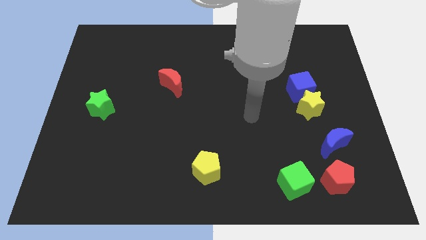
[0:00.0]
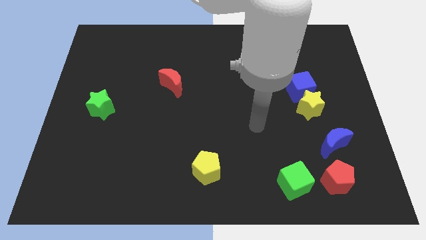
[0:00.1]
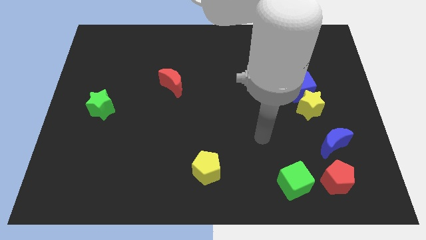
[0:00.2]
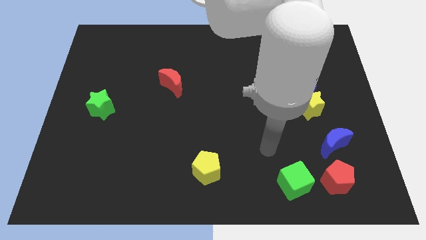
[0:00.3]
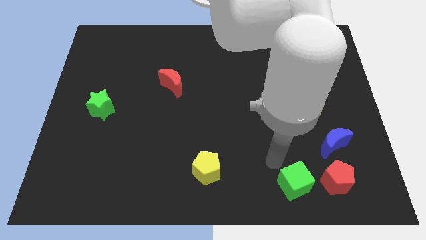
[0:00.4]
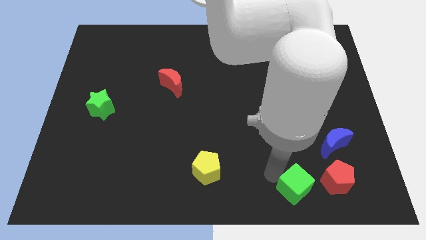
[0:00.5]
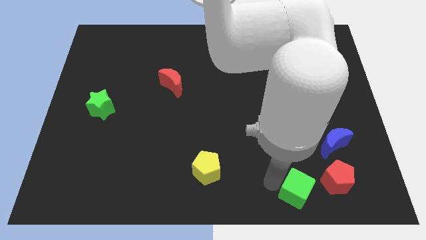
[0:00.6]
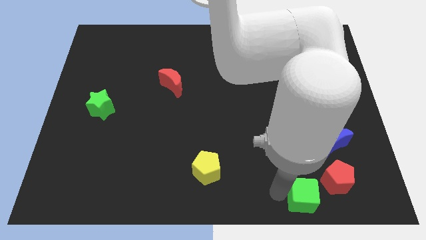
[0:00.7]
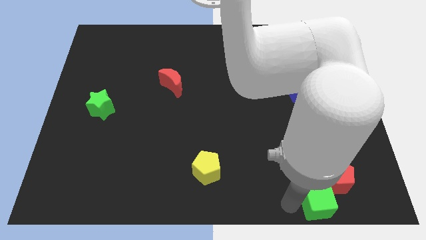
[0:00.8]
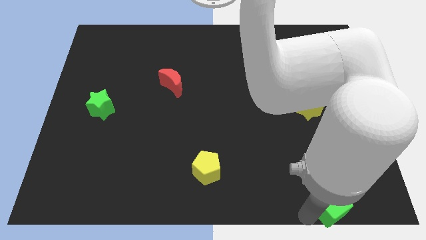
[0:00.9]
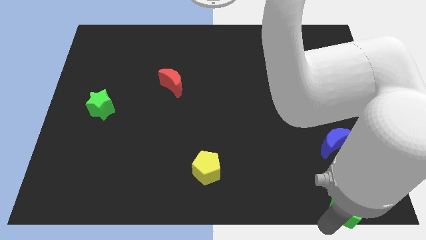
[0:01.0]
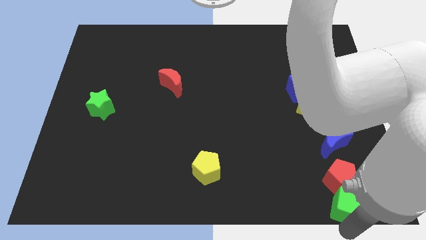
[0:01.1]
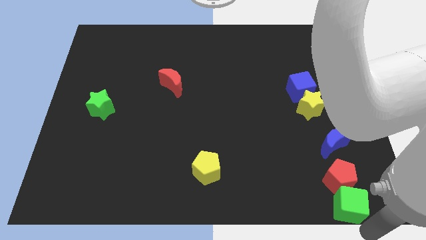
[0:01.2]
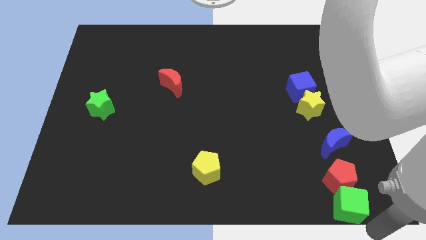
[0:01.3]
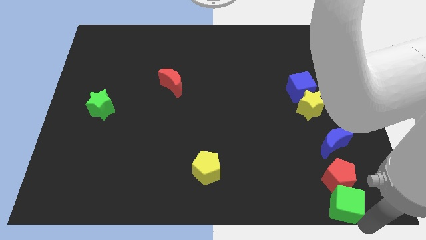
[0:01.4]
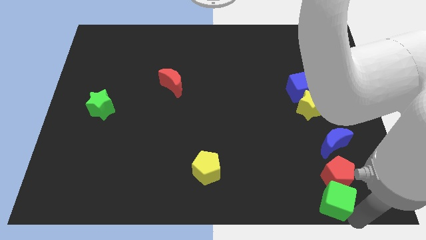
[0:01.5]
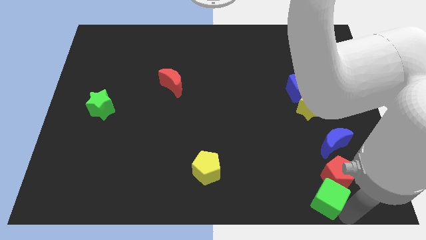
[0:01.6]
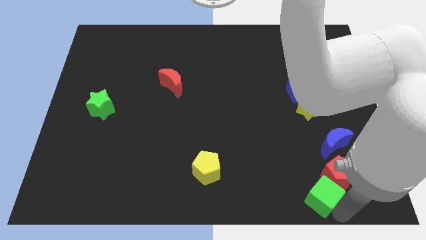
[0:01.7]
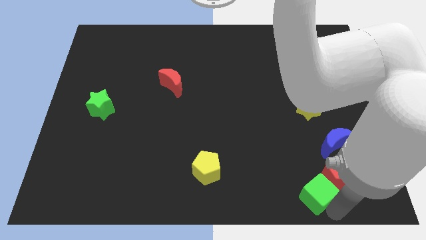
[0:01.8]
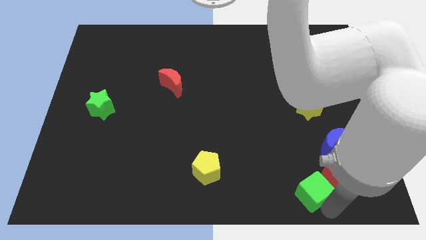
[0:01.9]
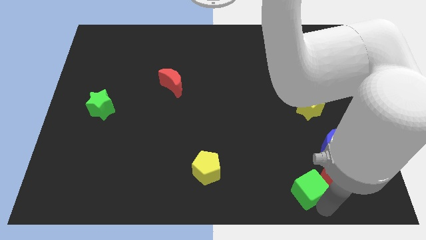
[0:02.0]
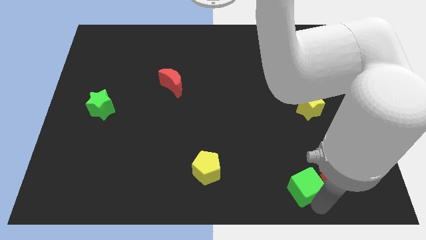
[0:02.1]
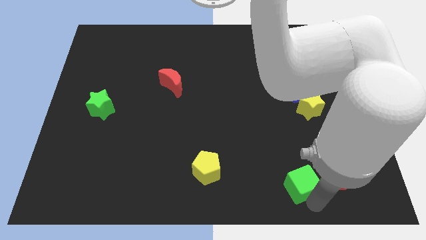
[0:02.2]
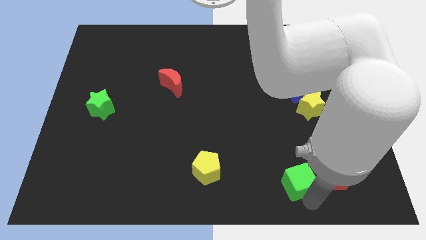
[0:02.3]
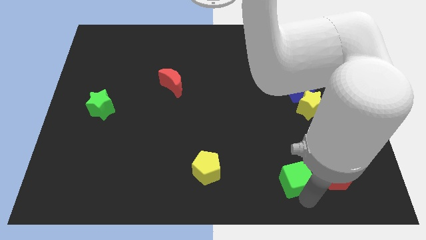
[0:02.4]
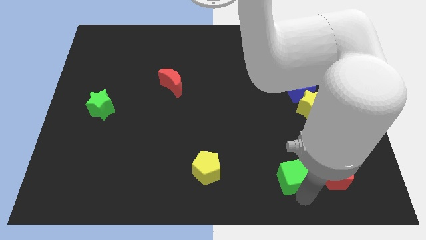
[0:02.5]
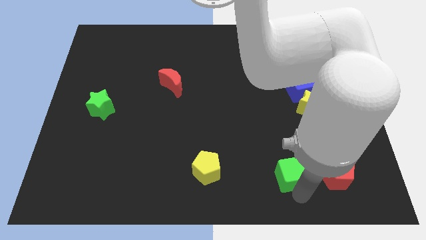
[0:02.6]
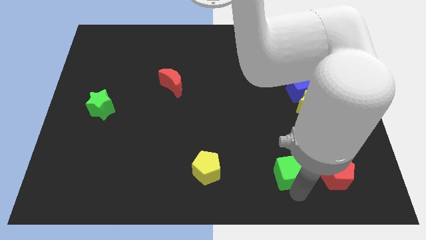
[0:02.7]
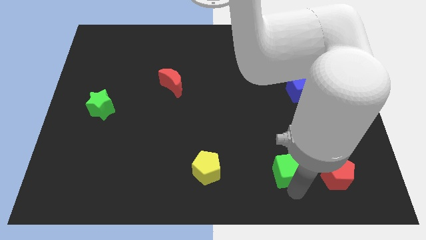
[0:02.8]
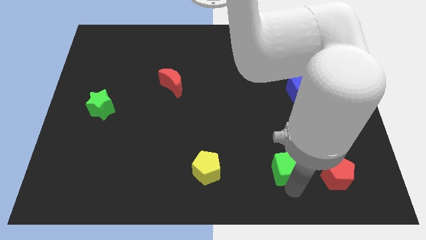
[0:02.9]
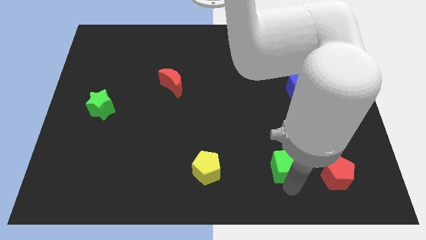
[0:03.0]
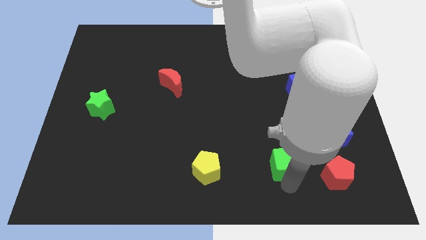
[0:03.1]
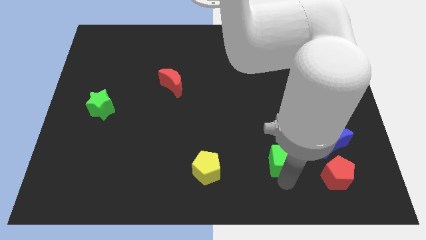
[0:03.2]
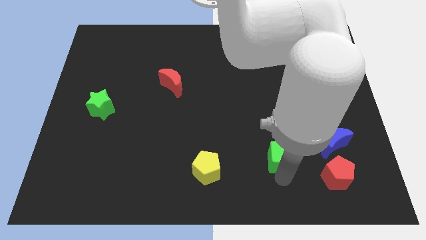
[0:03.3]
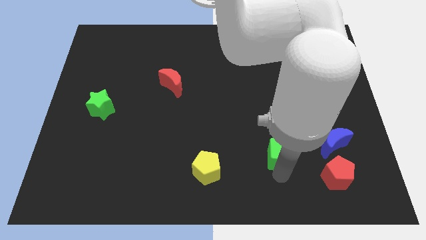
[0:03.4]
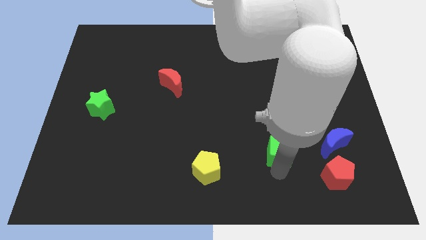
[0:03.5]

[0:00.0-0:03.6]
slide the green cube a little upwards

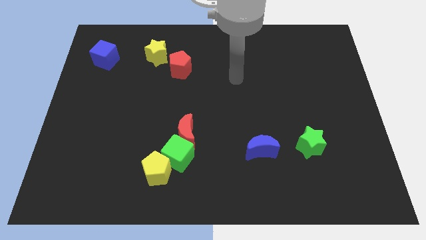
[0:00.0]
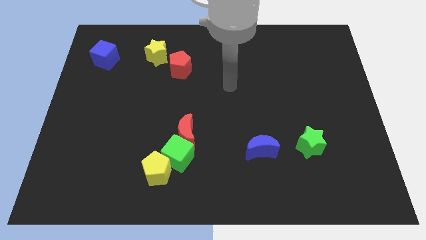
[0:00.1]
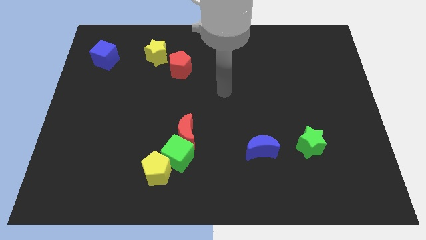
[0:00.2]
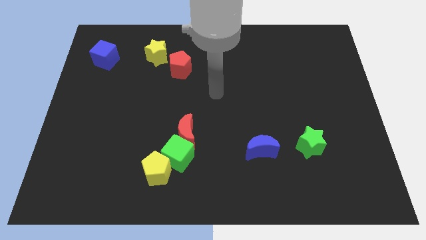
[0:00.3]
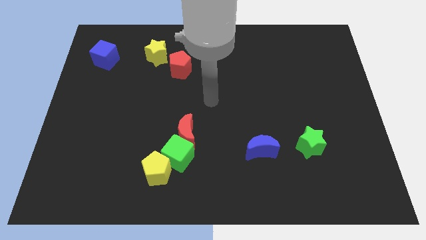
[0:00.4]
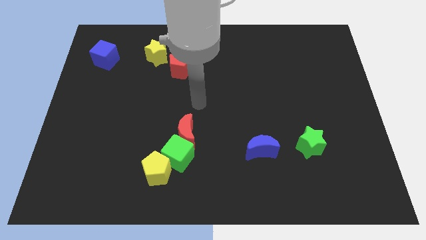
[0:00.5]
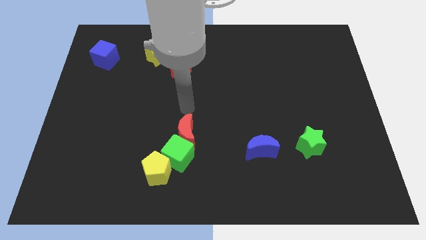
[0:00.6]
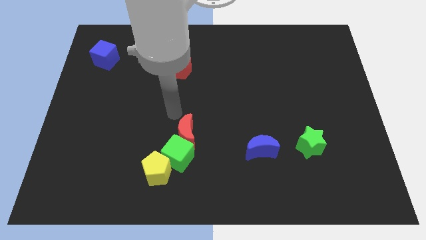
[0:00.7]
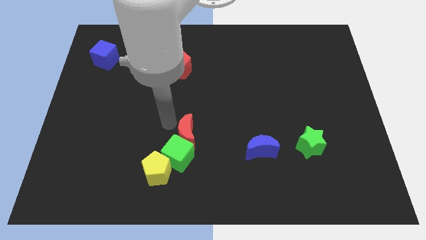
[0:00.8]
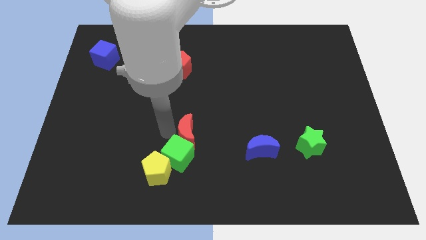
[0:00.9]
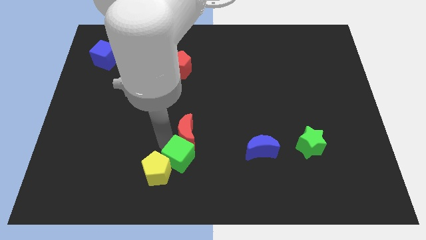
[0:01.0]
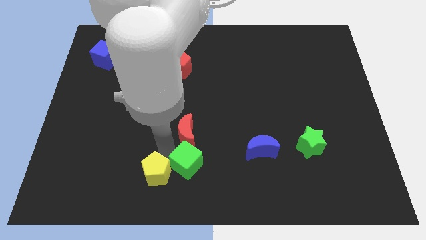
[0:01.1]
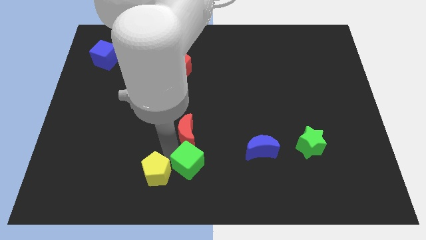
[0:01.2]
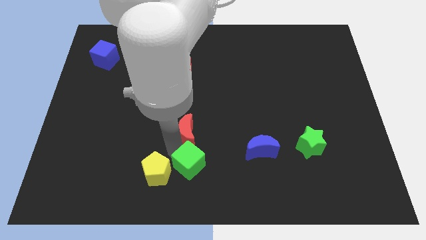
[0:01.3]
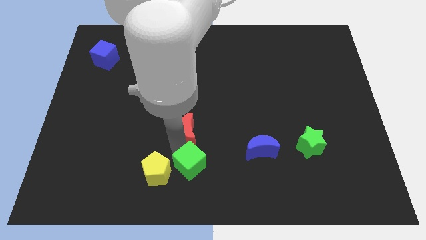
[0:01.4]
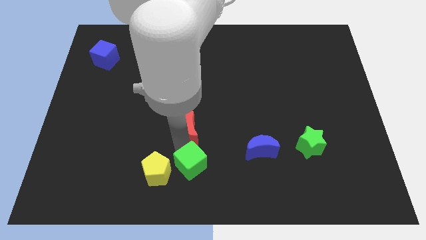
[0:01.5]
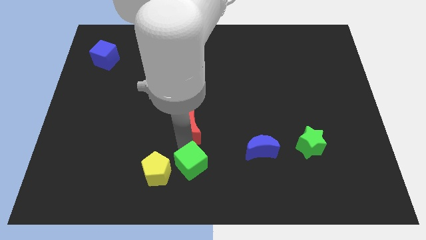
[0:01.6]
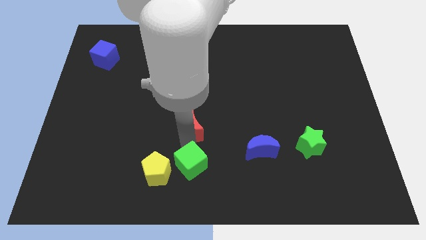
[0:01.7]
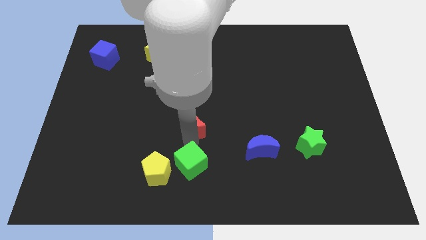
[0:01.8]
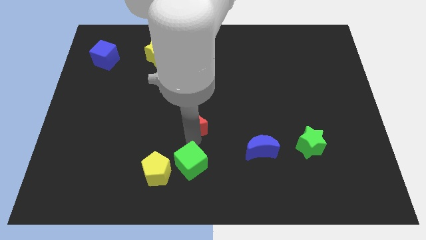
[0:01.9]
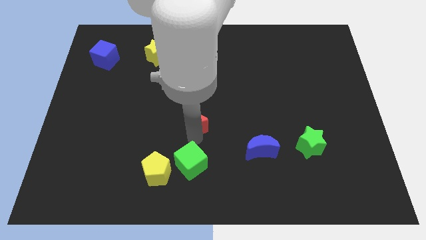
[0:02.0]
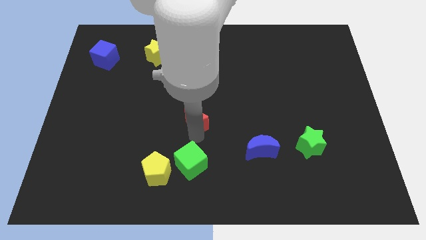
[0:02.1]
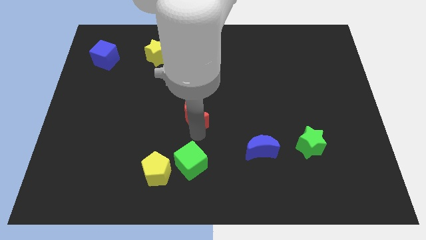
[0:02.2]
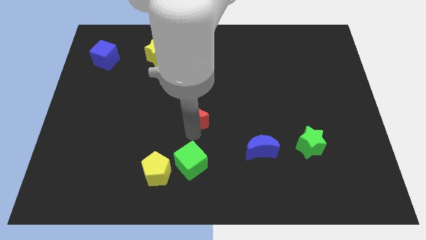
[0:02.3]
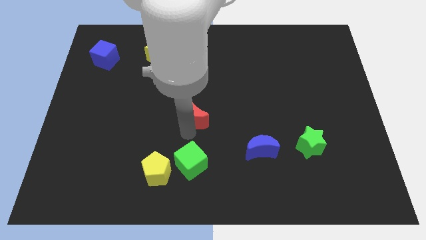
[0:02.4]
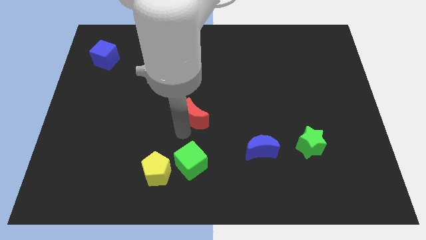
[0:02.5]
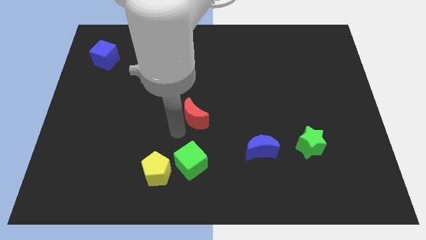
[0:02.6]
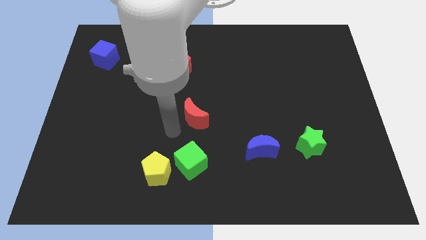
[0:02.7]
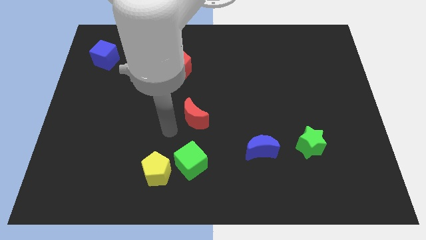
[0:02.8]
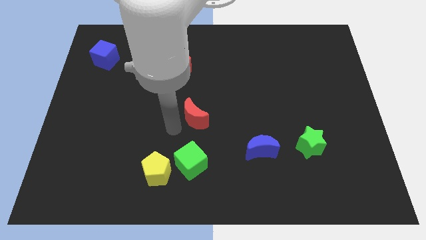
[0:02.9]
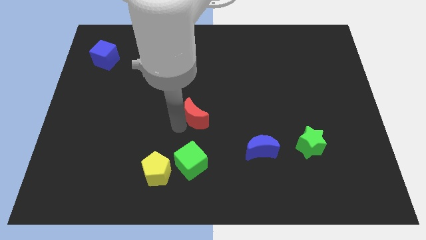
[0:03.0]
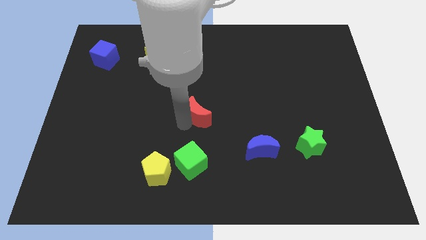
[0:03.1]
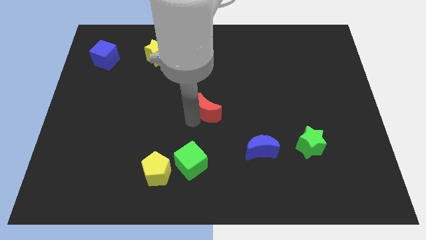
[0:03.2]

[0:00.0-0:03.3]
push the red moon diagonally up and right a little bit

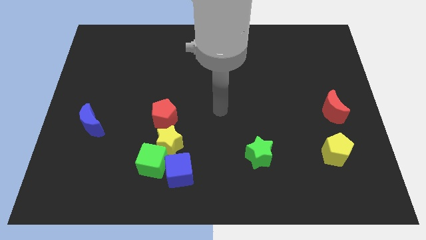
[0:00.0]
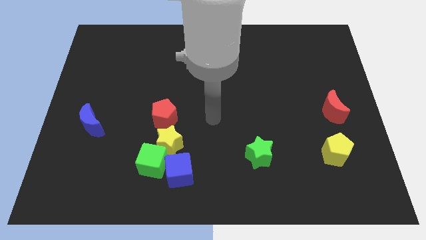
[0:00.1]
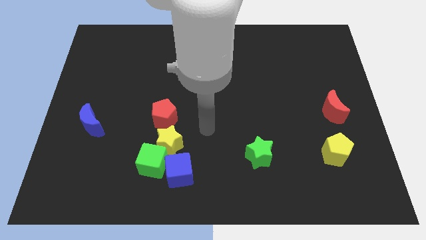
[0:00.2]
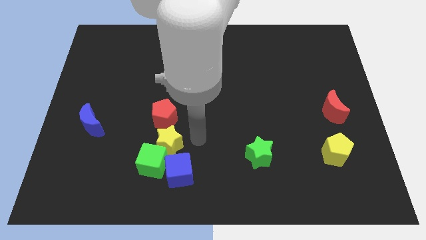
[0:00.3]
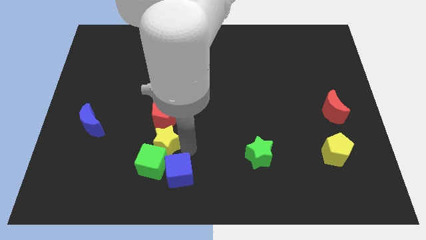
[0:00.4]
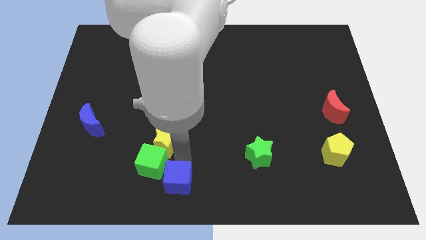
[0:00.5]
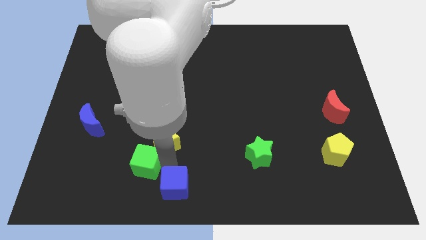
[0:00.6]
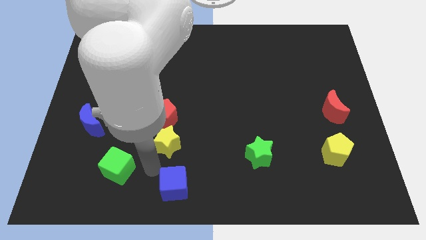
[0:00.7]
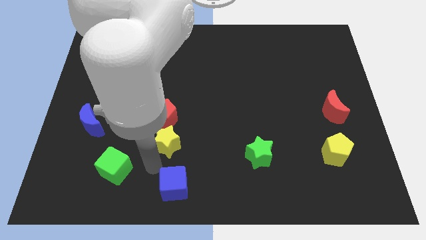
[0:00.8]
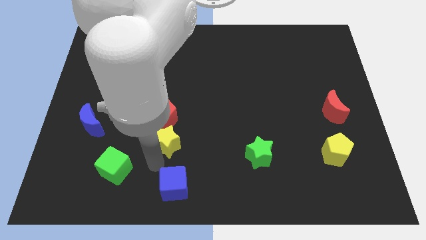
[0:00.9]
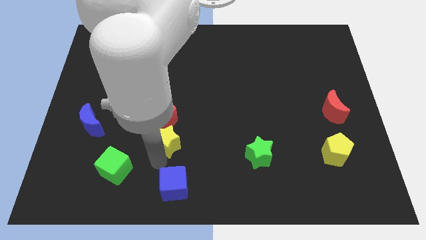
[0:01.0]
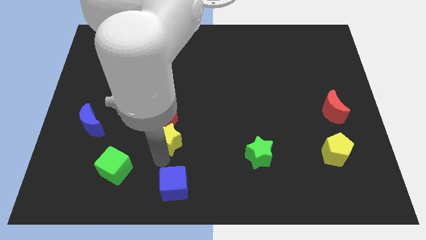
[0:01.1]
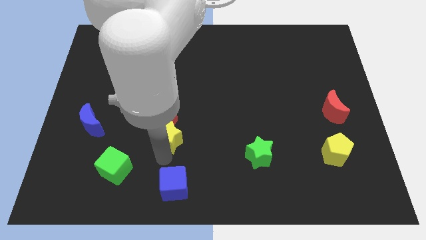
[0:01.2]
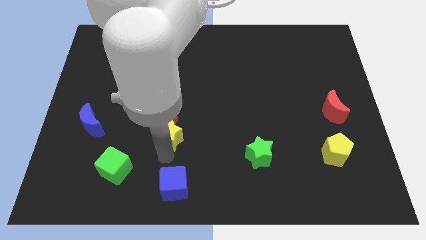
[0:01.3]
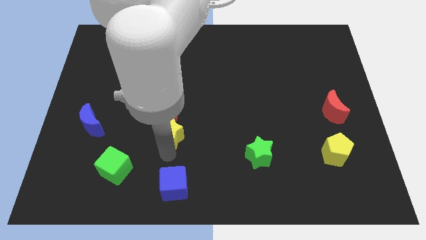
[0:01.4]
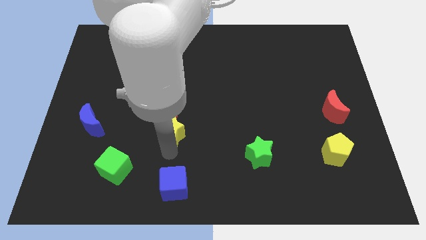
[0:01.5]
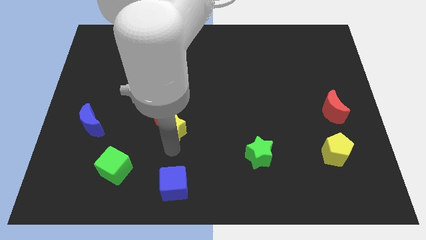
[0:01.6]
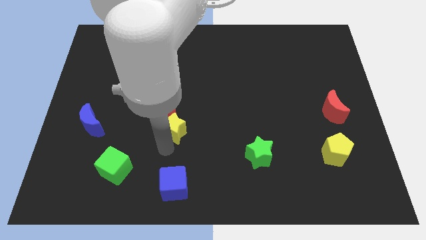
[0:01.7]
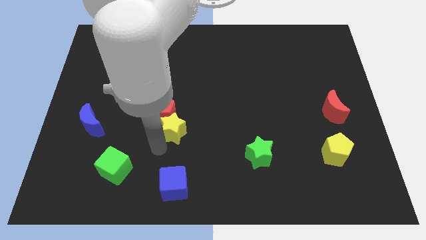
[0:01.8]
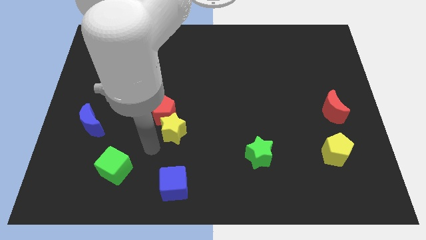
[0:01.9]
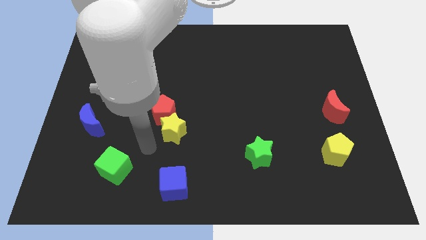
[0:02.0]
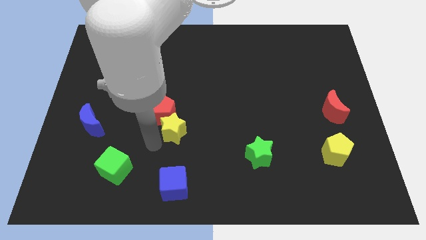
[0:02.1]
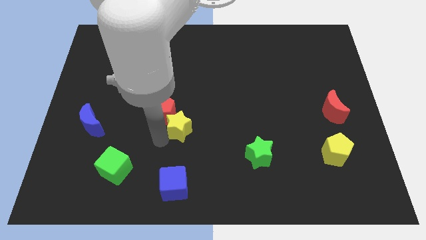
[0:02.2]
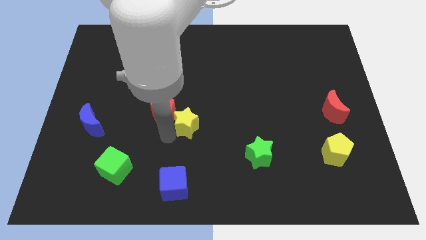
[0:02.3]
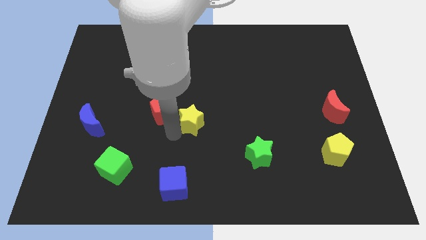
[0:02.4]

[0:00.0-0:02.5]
slide the yellow star a bit diagonally upwards and right
